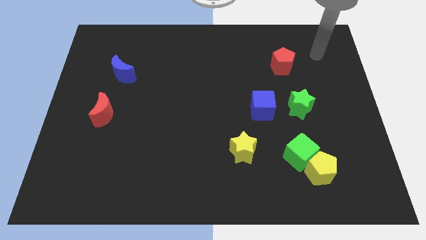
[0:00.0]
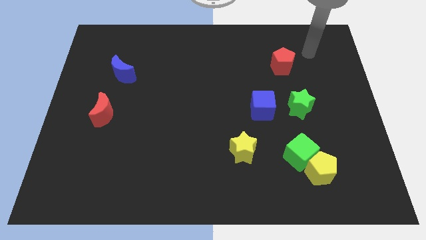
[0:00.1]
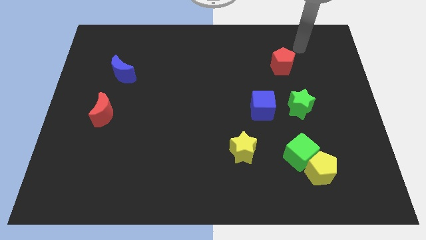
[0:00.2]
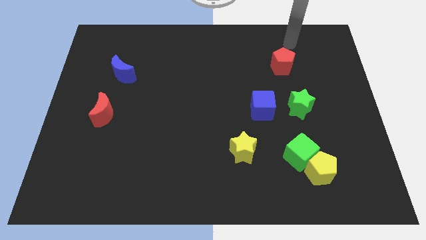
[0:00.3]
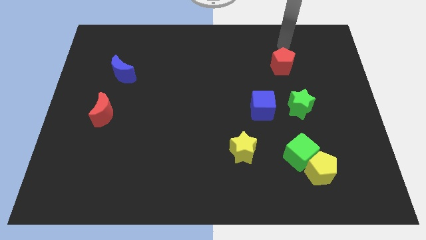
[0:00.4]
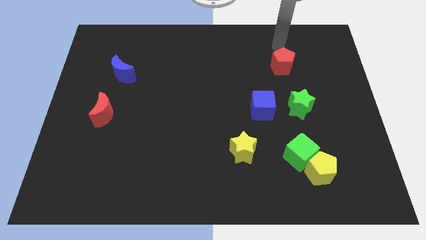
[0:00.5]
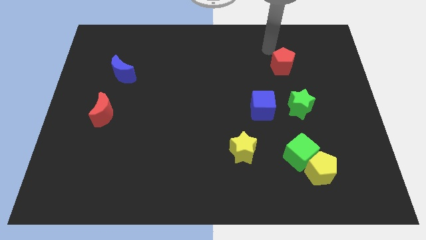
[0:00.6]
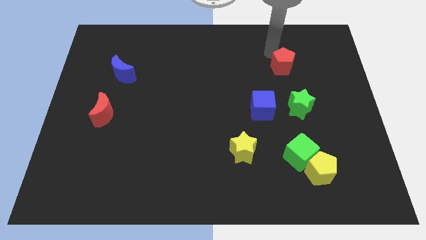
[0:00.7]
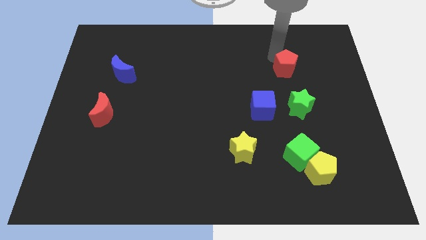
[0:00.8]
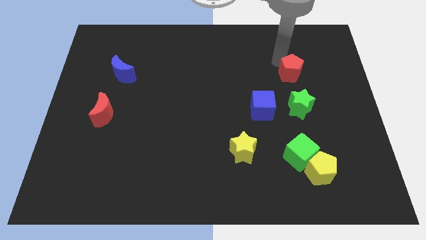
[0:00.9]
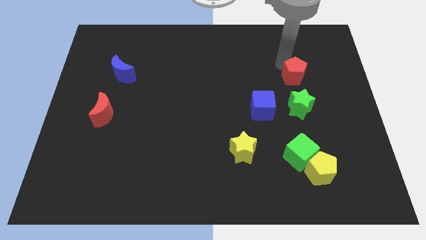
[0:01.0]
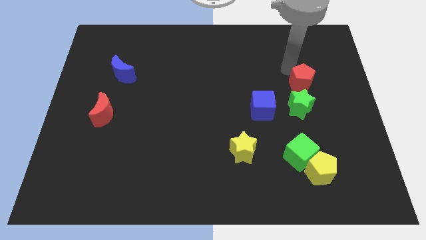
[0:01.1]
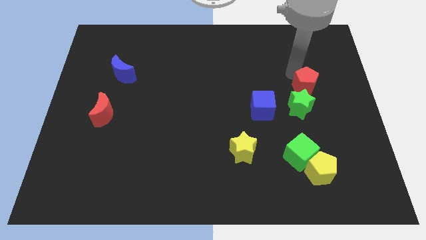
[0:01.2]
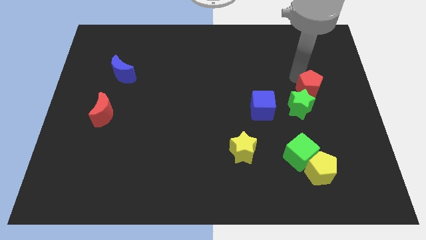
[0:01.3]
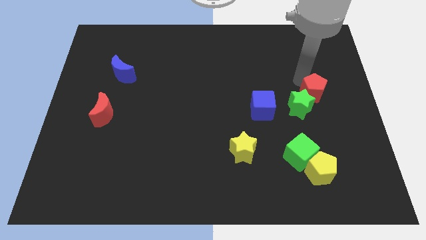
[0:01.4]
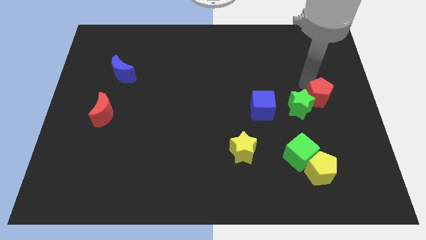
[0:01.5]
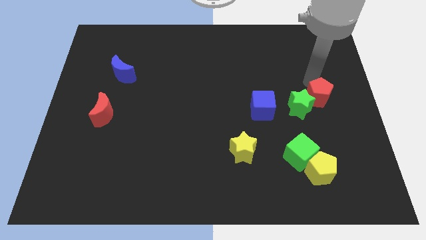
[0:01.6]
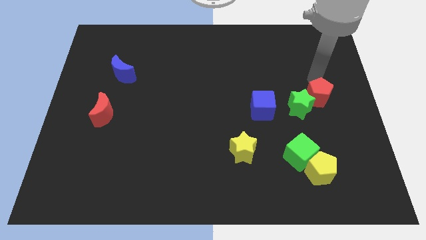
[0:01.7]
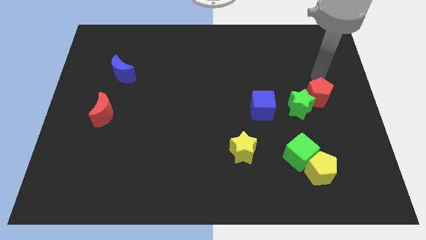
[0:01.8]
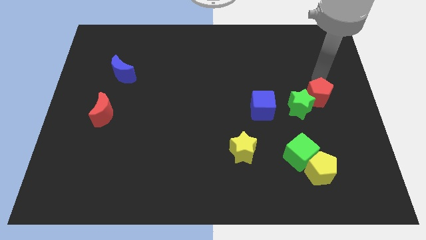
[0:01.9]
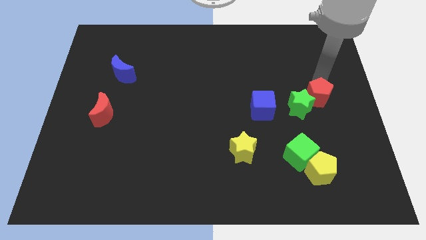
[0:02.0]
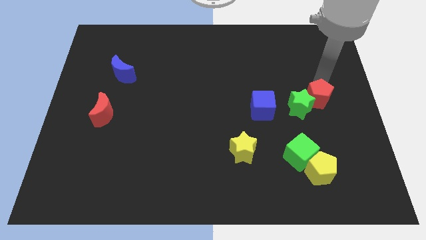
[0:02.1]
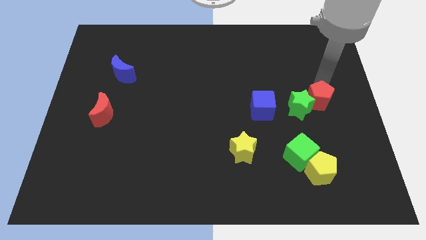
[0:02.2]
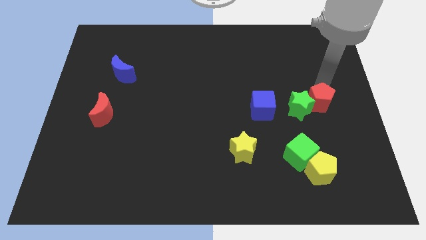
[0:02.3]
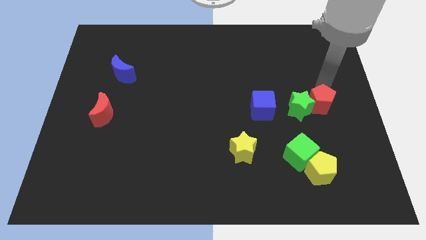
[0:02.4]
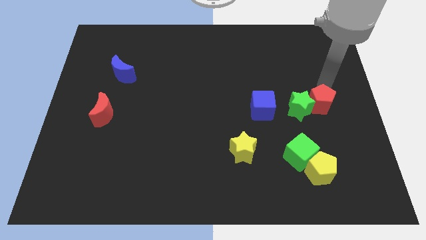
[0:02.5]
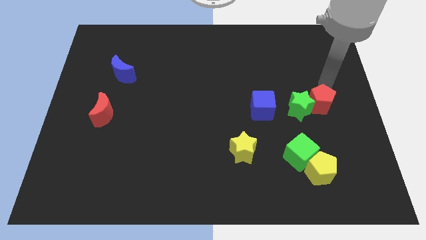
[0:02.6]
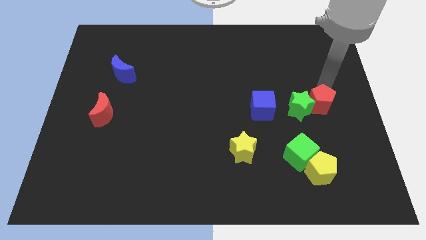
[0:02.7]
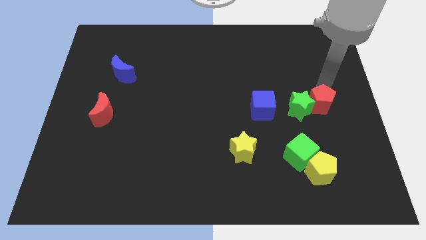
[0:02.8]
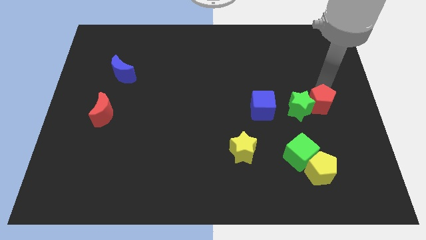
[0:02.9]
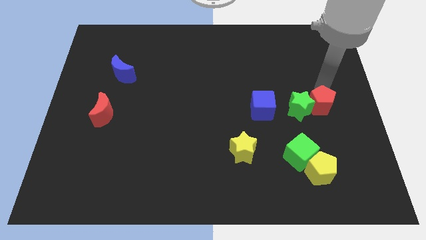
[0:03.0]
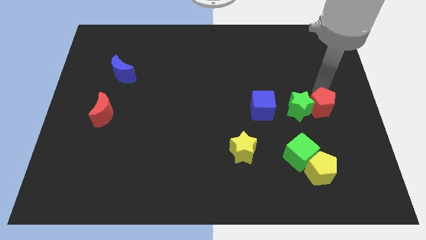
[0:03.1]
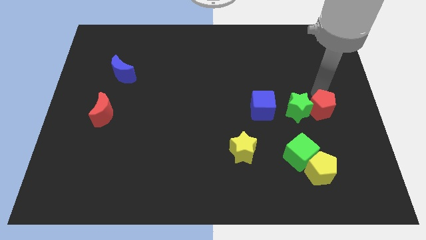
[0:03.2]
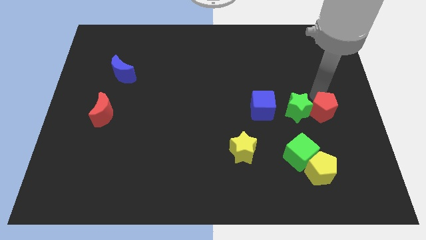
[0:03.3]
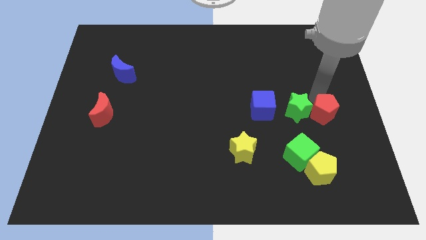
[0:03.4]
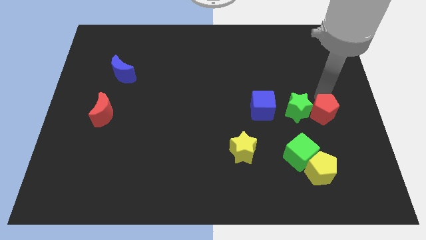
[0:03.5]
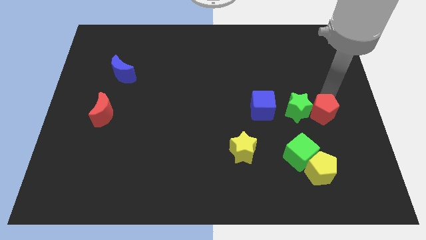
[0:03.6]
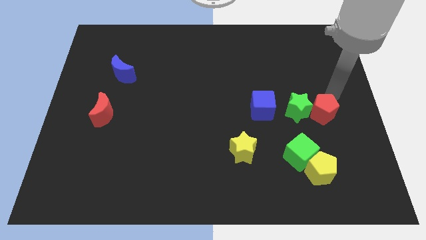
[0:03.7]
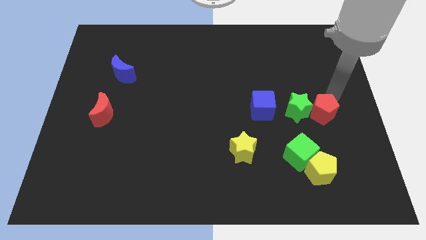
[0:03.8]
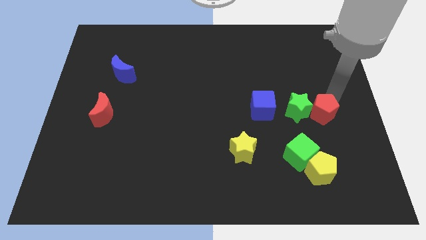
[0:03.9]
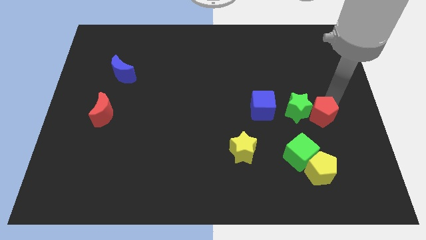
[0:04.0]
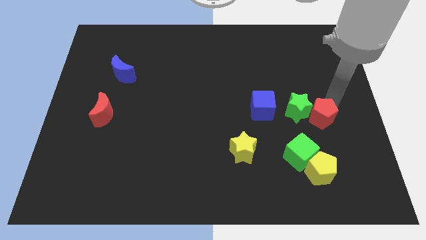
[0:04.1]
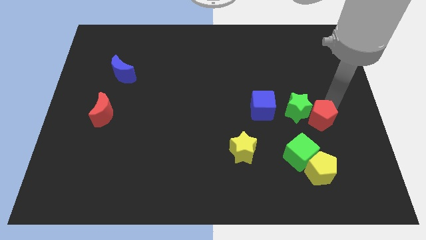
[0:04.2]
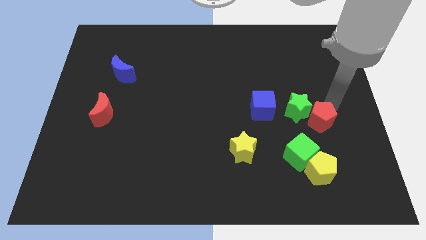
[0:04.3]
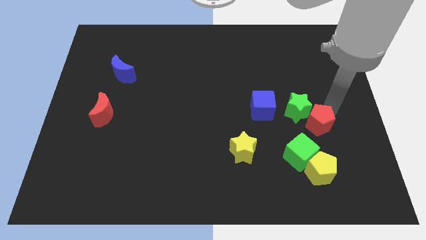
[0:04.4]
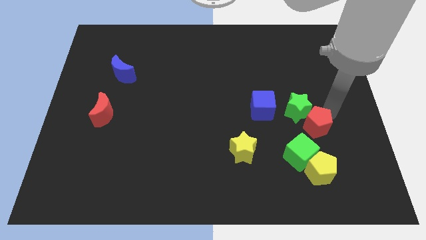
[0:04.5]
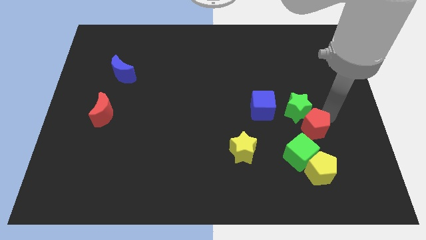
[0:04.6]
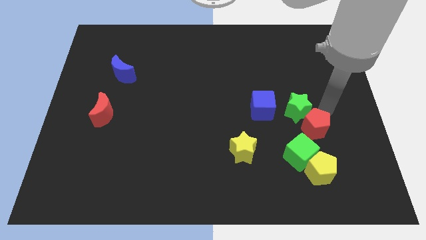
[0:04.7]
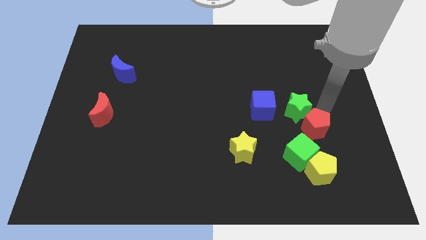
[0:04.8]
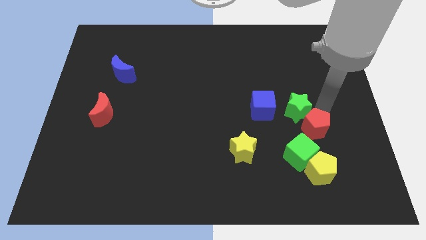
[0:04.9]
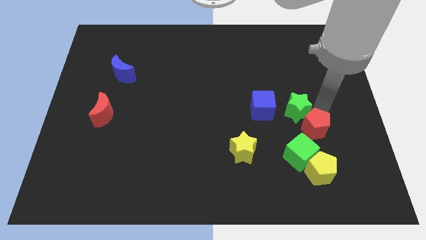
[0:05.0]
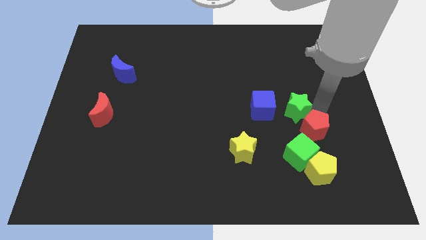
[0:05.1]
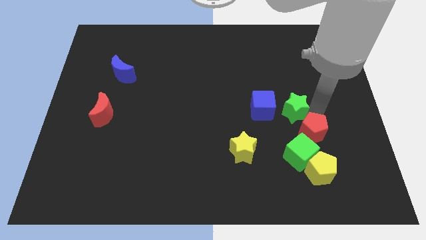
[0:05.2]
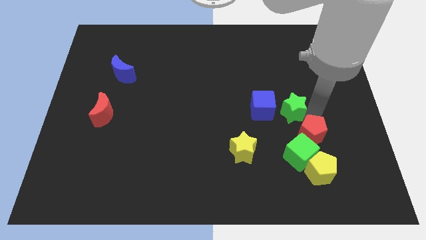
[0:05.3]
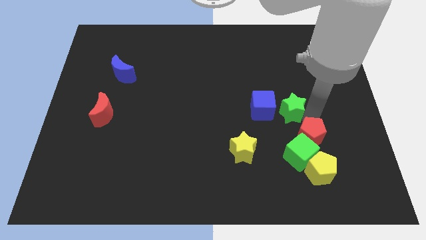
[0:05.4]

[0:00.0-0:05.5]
move the red pentagon towards the green cube

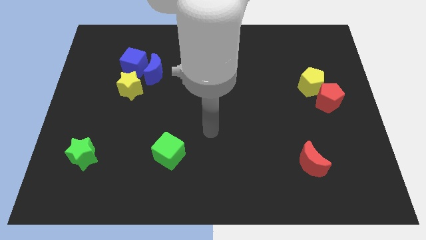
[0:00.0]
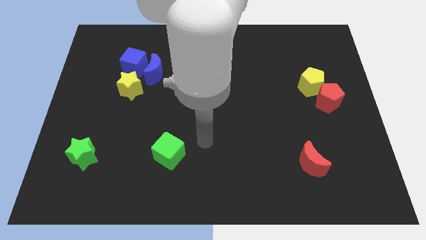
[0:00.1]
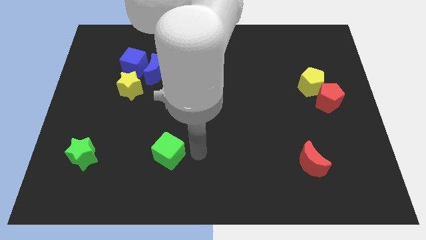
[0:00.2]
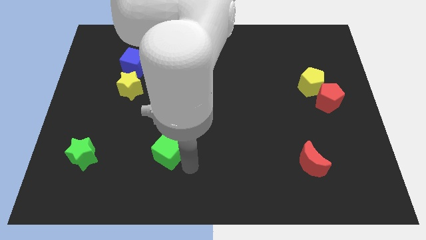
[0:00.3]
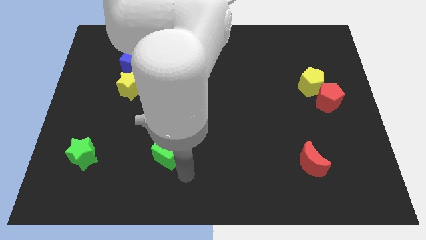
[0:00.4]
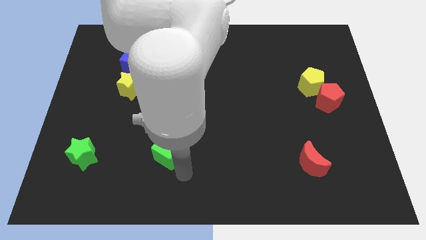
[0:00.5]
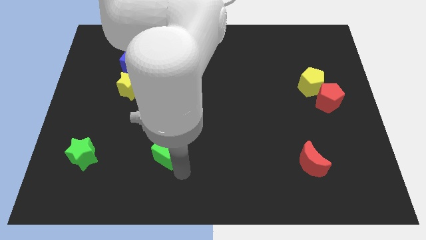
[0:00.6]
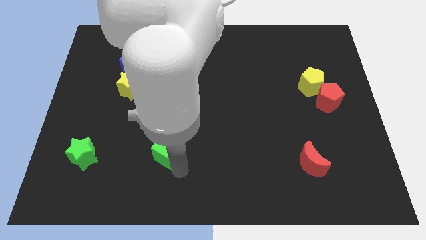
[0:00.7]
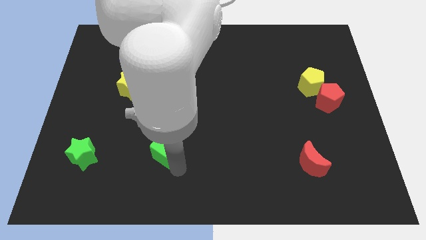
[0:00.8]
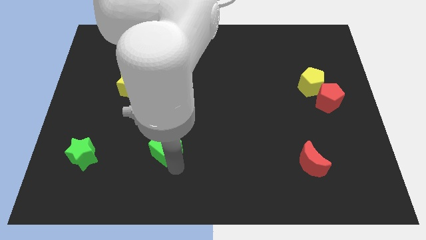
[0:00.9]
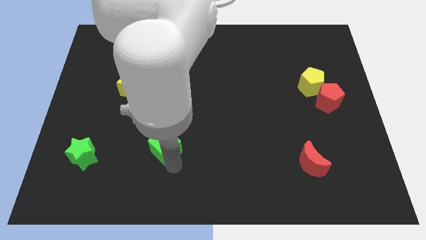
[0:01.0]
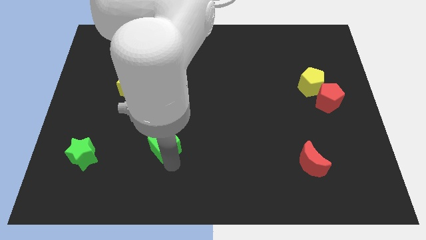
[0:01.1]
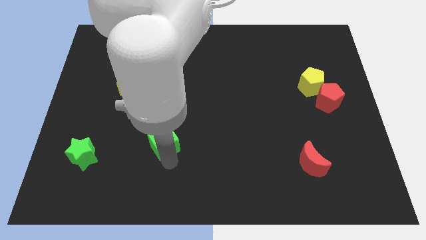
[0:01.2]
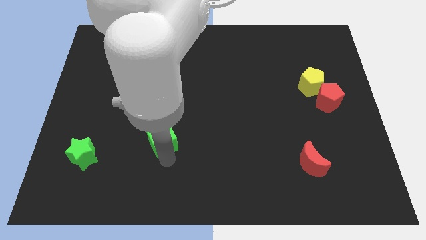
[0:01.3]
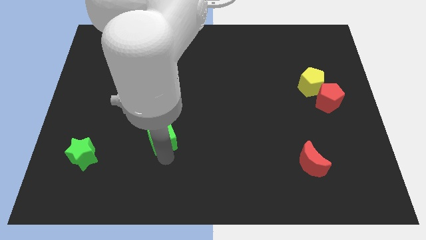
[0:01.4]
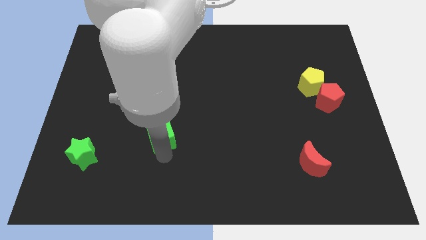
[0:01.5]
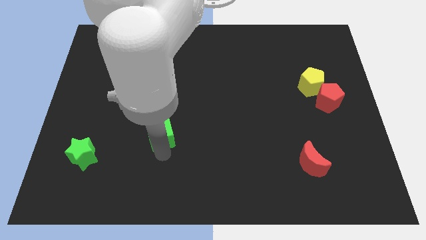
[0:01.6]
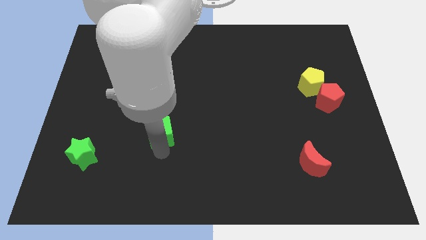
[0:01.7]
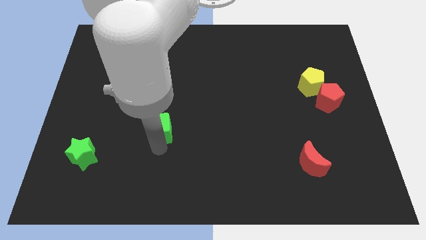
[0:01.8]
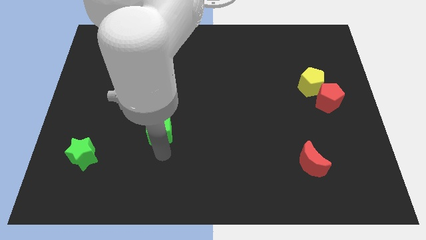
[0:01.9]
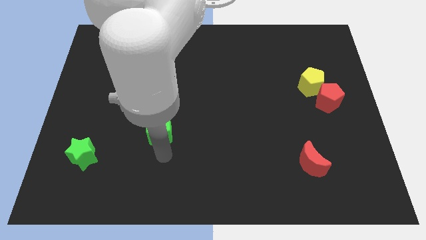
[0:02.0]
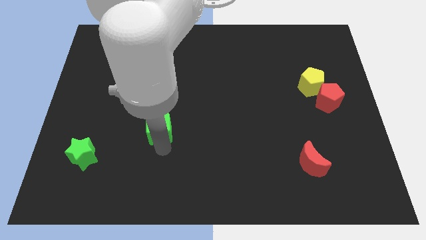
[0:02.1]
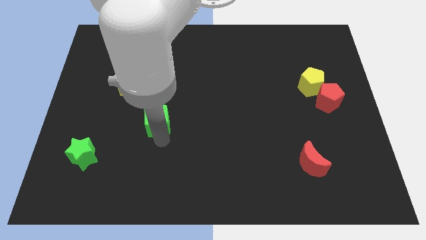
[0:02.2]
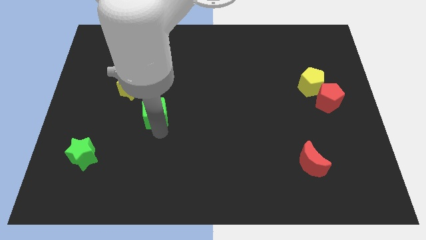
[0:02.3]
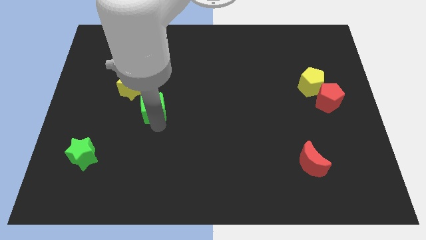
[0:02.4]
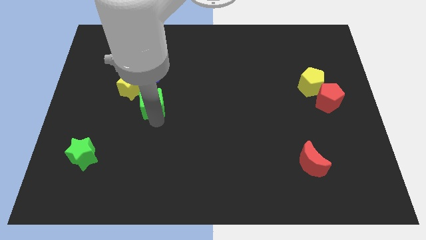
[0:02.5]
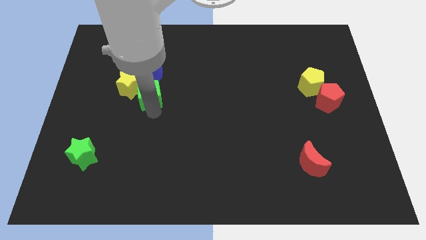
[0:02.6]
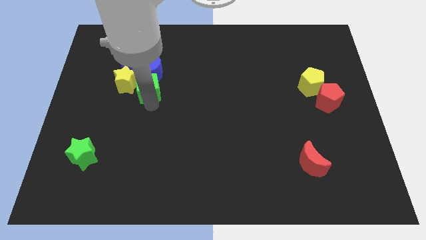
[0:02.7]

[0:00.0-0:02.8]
put the green cube towards the blue moon
